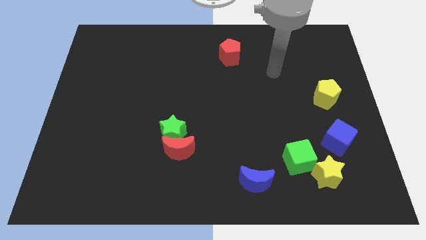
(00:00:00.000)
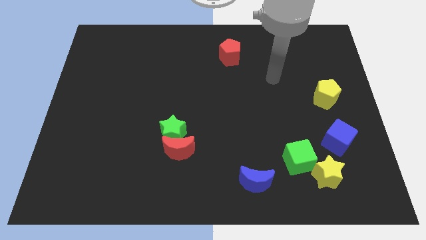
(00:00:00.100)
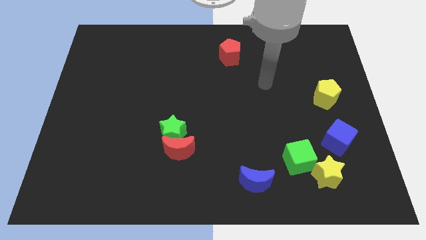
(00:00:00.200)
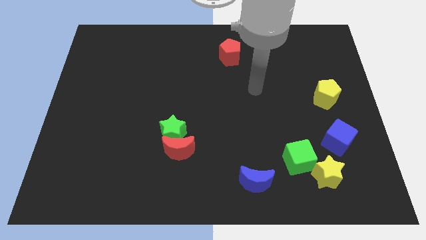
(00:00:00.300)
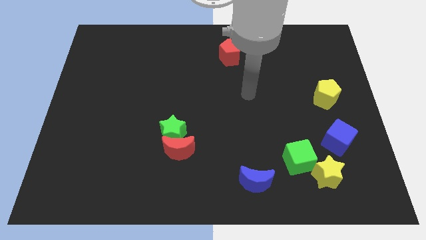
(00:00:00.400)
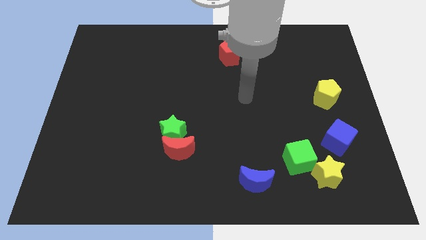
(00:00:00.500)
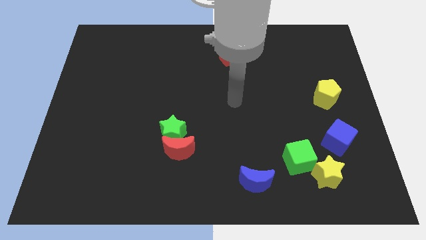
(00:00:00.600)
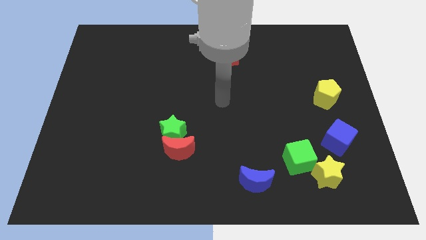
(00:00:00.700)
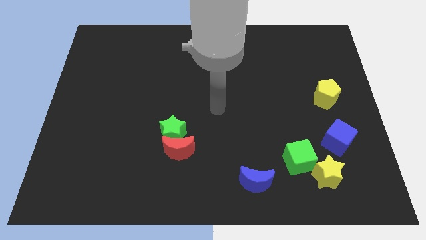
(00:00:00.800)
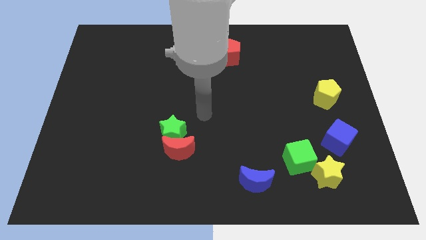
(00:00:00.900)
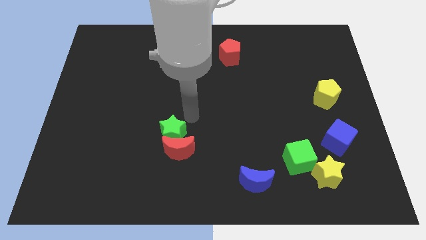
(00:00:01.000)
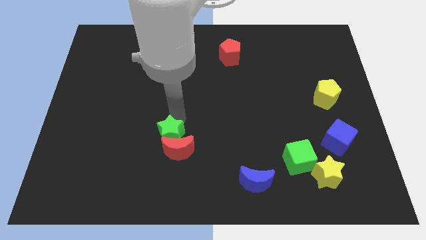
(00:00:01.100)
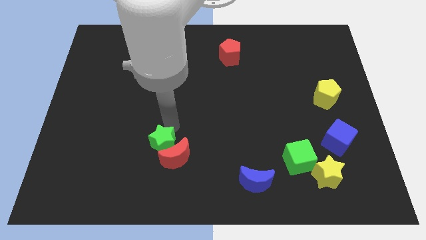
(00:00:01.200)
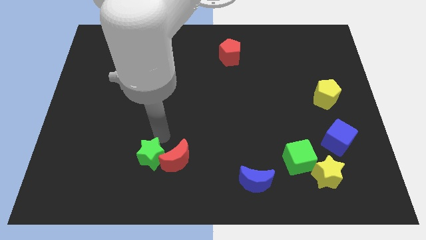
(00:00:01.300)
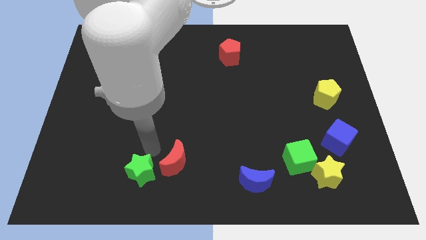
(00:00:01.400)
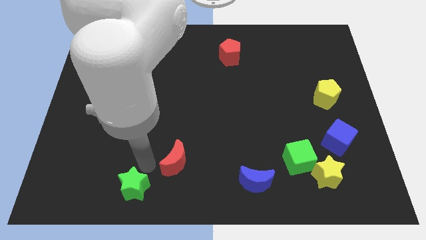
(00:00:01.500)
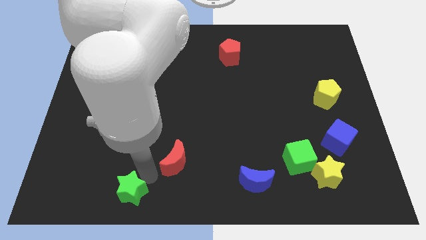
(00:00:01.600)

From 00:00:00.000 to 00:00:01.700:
separate the red moon from the green star

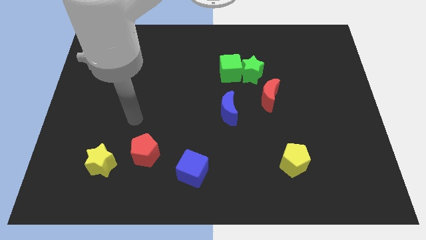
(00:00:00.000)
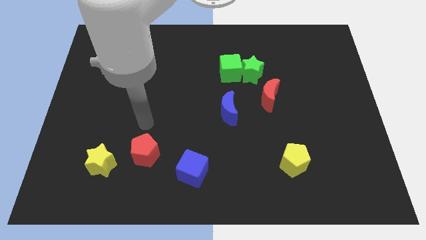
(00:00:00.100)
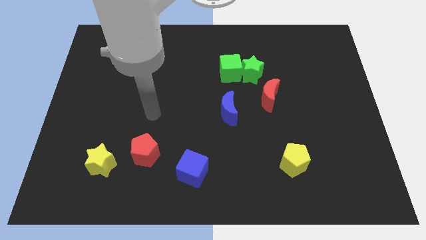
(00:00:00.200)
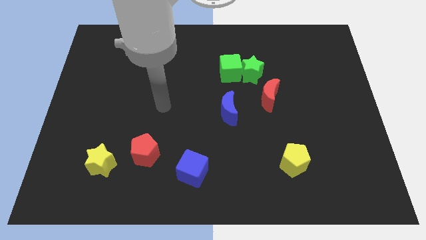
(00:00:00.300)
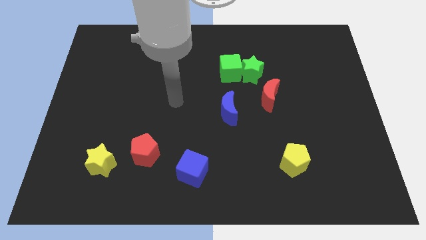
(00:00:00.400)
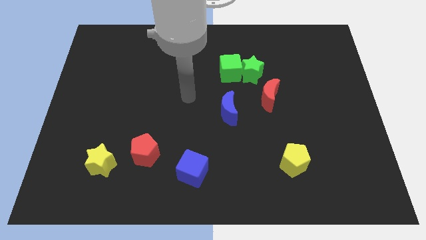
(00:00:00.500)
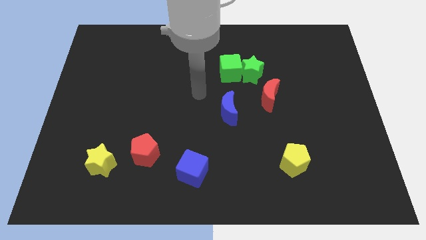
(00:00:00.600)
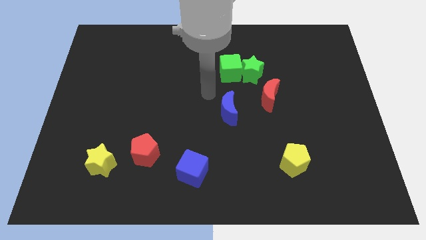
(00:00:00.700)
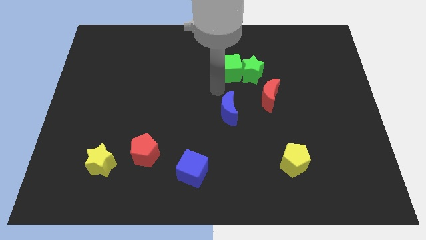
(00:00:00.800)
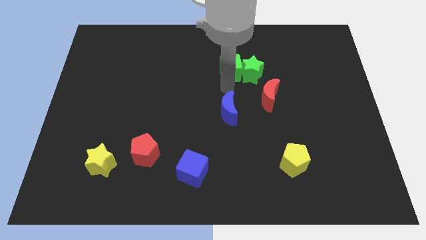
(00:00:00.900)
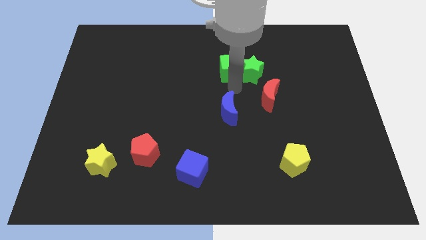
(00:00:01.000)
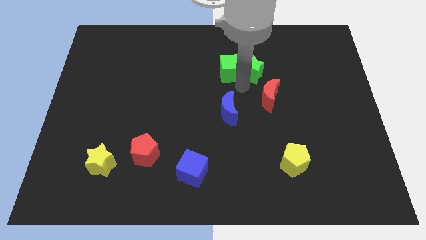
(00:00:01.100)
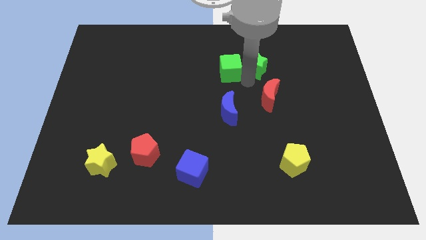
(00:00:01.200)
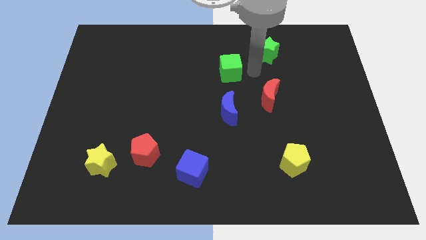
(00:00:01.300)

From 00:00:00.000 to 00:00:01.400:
move the green cube away from the green star

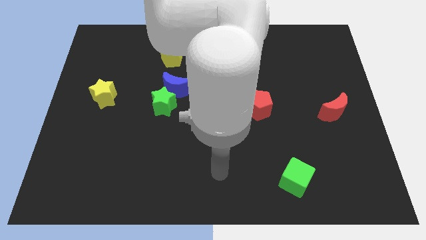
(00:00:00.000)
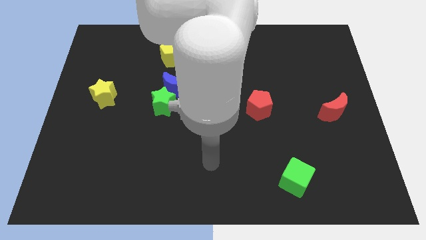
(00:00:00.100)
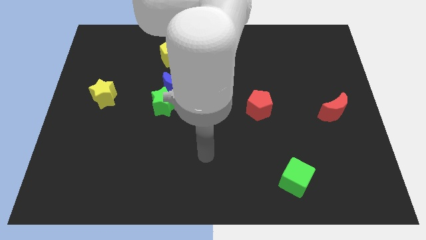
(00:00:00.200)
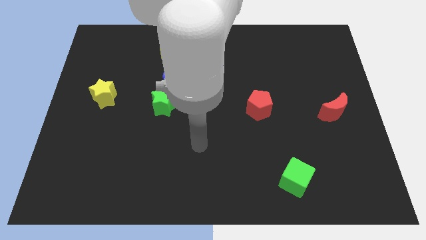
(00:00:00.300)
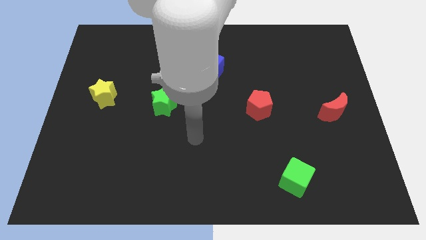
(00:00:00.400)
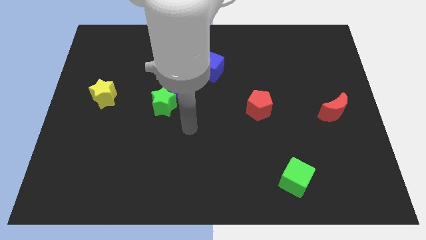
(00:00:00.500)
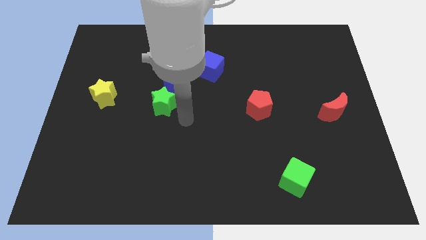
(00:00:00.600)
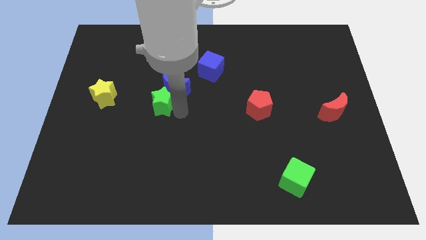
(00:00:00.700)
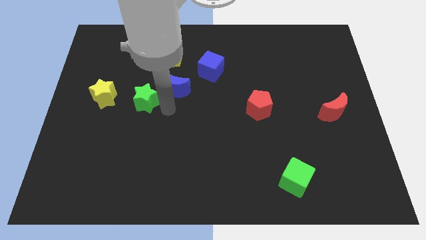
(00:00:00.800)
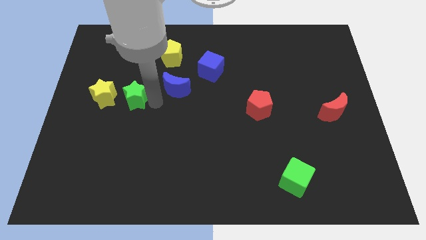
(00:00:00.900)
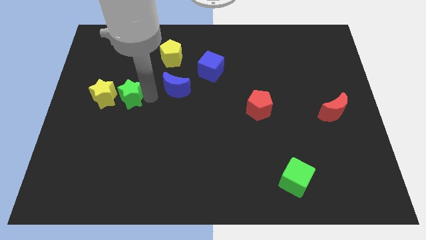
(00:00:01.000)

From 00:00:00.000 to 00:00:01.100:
pull the blue moon apart from the green star

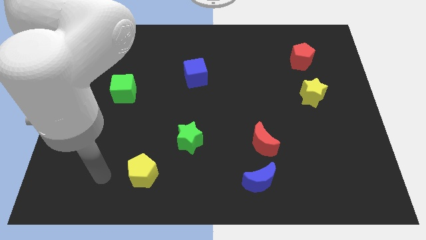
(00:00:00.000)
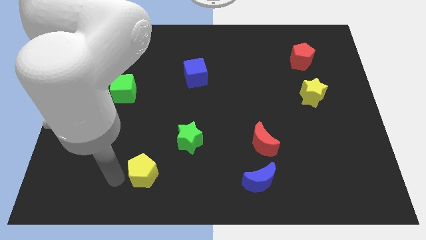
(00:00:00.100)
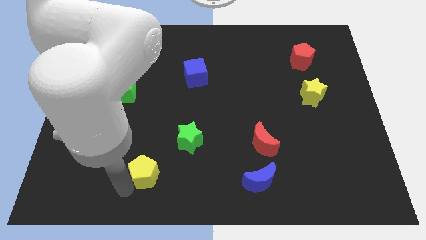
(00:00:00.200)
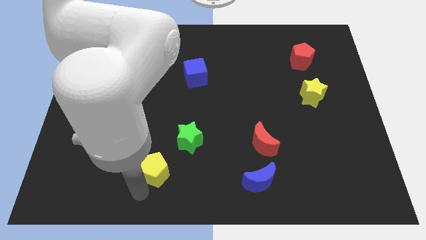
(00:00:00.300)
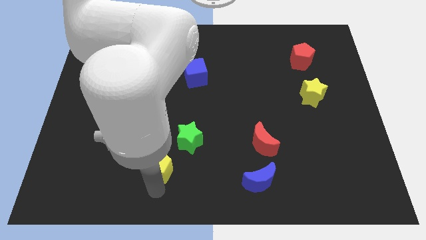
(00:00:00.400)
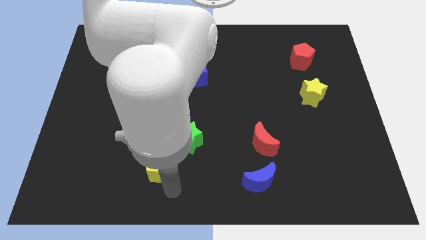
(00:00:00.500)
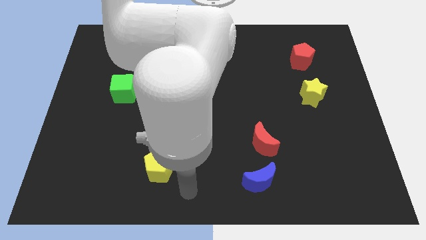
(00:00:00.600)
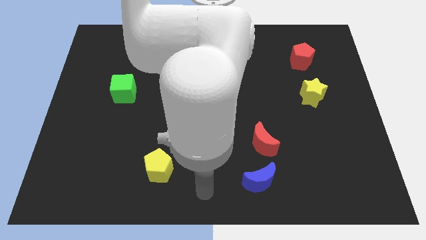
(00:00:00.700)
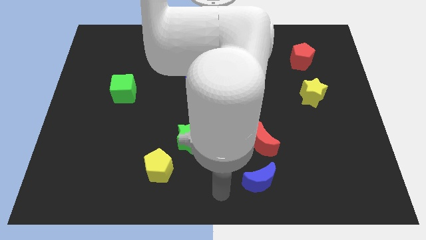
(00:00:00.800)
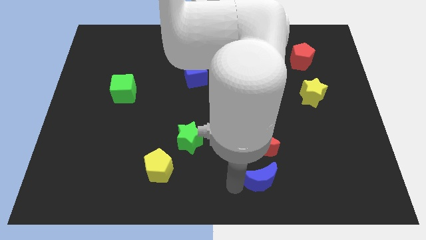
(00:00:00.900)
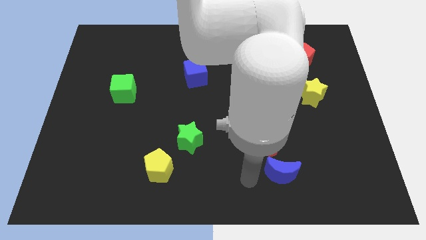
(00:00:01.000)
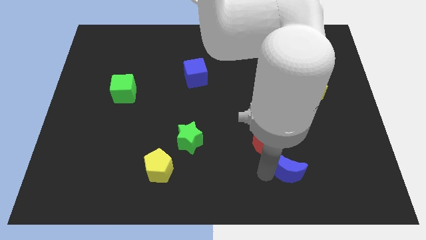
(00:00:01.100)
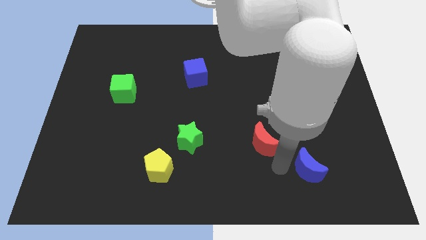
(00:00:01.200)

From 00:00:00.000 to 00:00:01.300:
pull the red moon apart from the blue moon

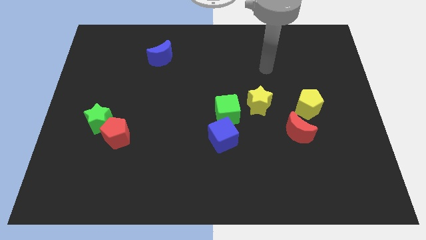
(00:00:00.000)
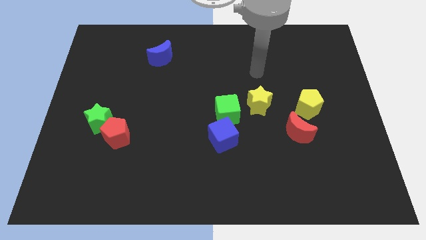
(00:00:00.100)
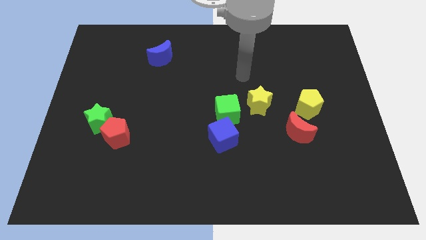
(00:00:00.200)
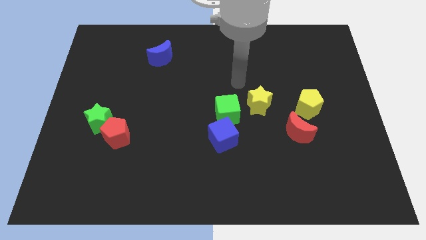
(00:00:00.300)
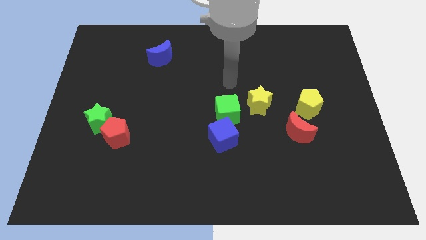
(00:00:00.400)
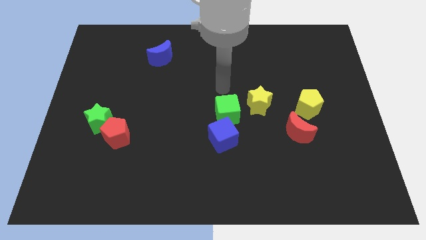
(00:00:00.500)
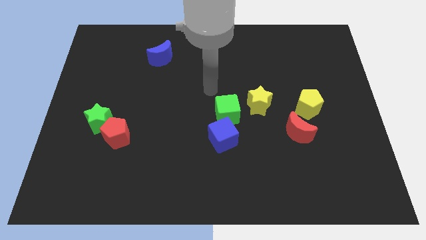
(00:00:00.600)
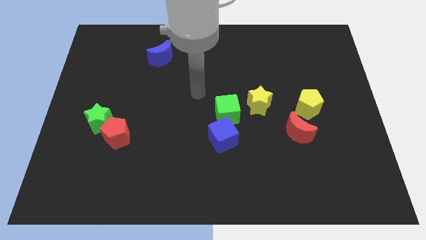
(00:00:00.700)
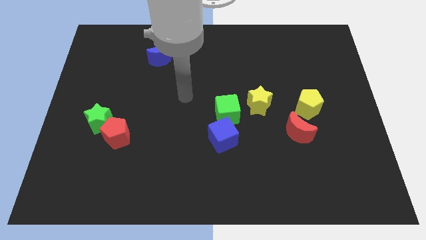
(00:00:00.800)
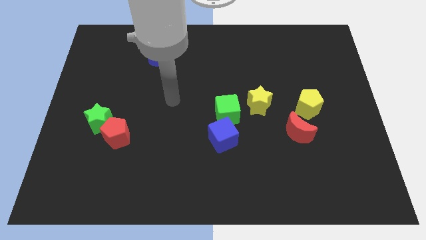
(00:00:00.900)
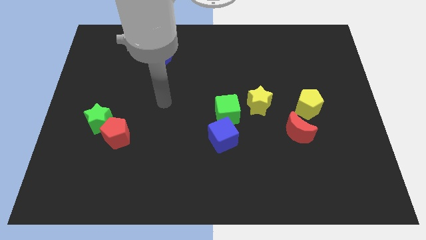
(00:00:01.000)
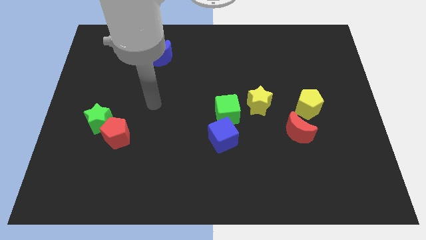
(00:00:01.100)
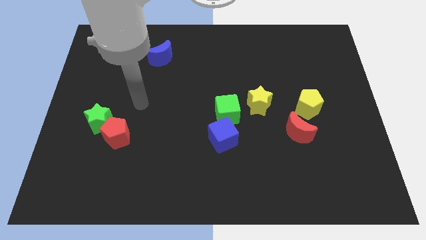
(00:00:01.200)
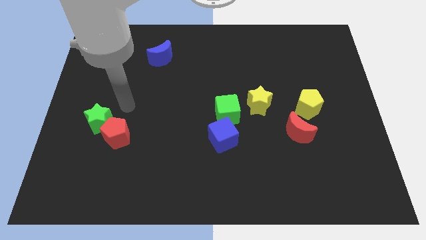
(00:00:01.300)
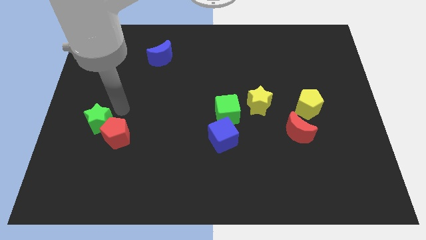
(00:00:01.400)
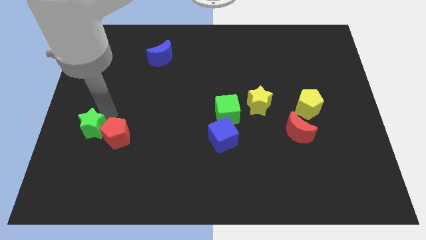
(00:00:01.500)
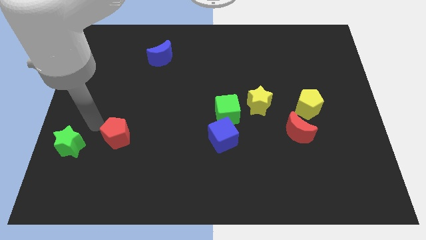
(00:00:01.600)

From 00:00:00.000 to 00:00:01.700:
pull the red pentagon apart from the green star

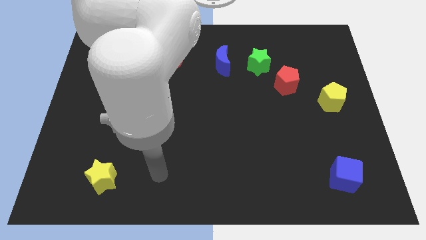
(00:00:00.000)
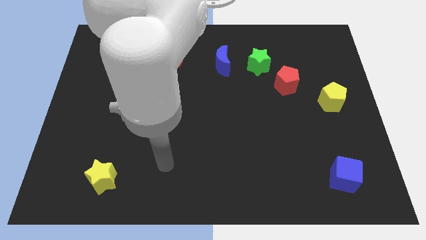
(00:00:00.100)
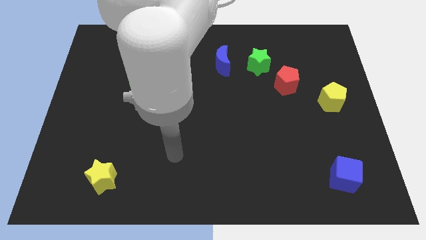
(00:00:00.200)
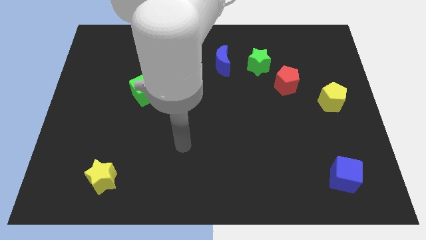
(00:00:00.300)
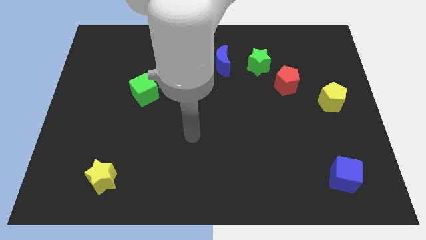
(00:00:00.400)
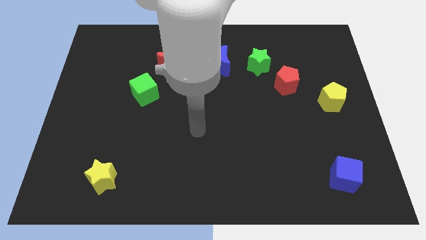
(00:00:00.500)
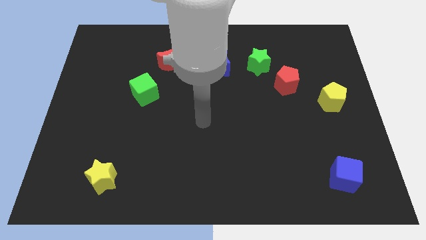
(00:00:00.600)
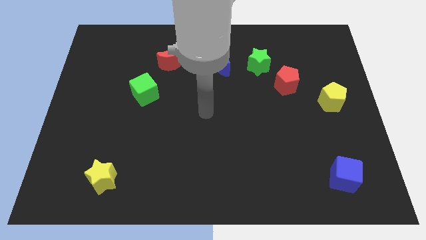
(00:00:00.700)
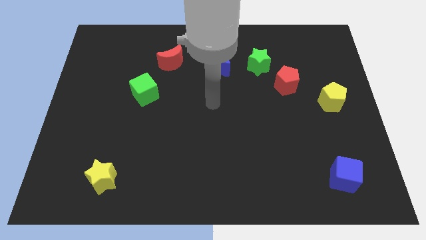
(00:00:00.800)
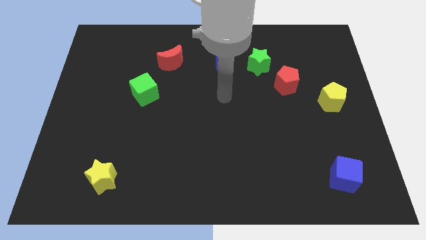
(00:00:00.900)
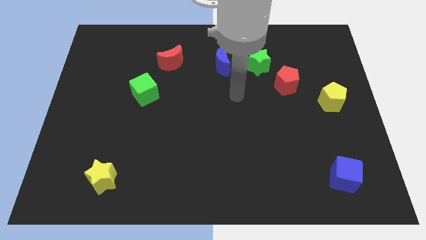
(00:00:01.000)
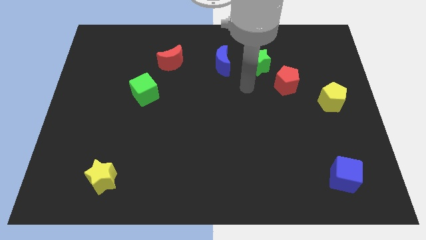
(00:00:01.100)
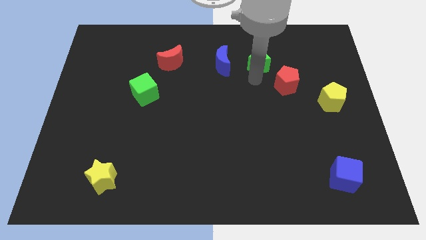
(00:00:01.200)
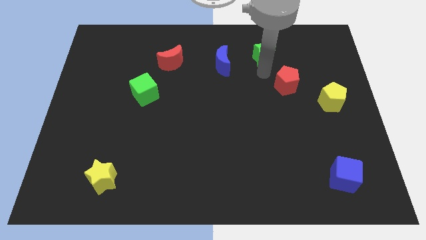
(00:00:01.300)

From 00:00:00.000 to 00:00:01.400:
move the red pentagon away from the green star

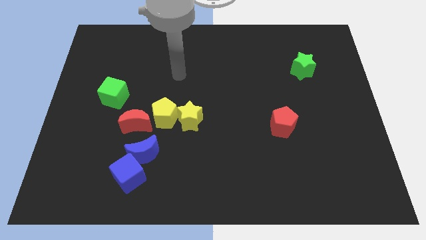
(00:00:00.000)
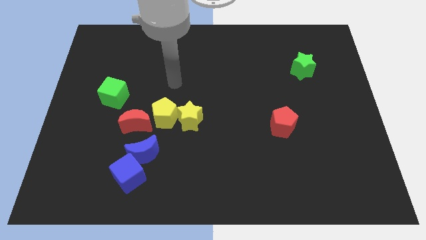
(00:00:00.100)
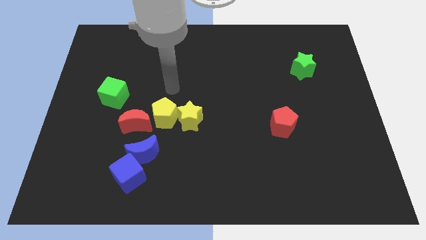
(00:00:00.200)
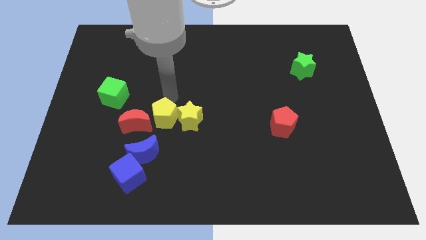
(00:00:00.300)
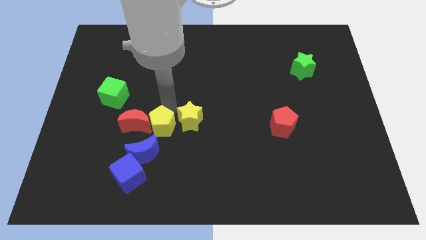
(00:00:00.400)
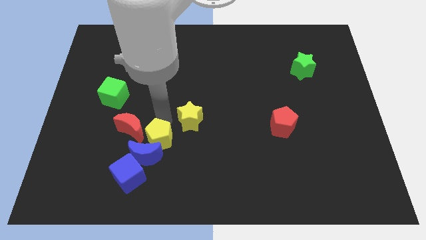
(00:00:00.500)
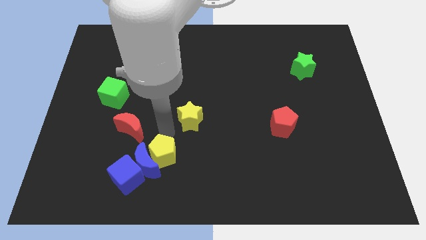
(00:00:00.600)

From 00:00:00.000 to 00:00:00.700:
pull the yellow star apart from the yellow pentagon
